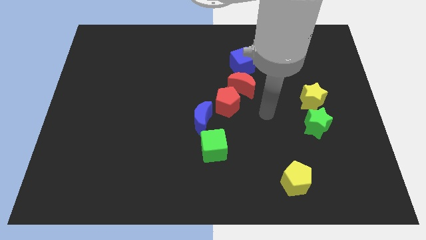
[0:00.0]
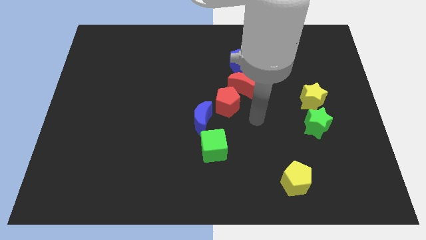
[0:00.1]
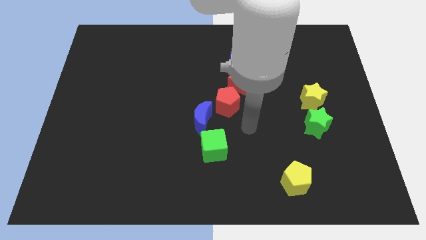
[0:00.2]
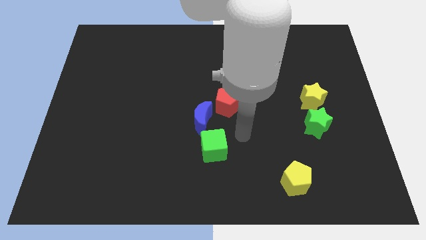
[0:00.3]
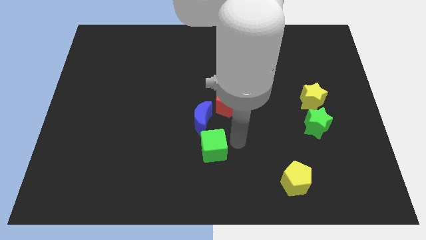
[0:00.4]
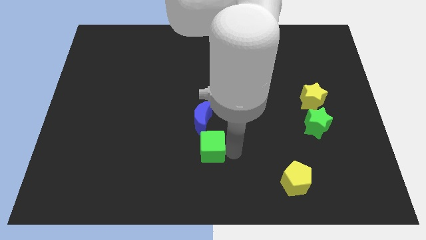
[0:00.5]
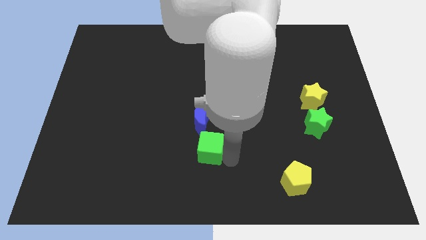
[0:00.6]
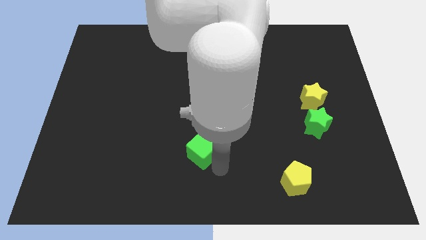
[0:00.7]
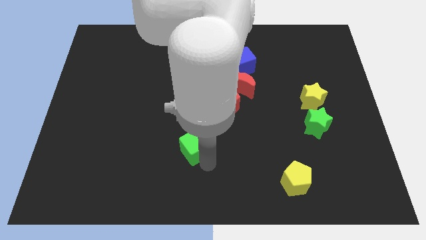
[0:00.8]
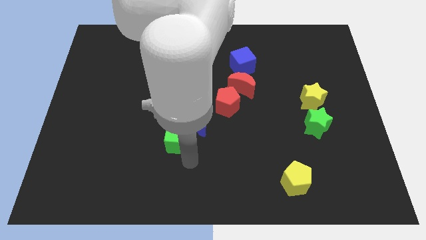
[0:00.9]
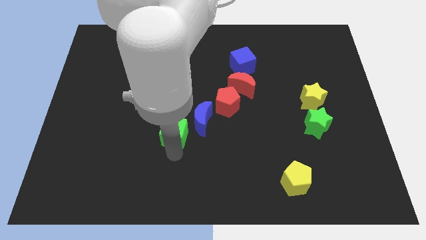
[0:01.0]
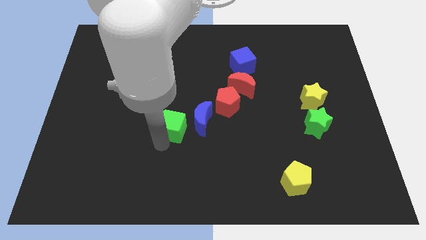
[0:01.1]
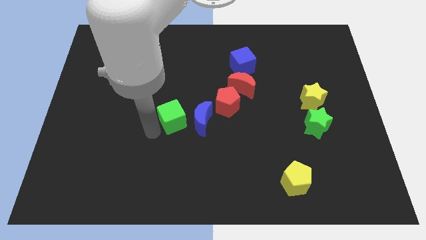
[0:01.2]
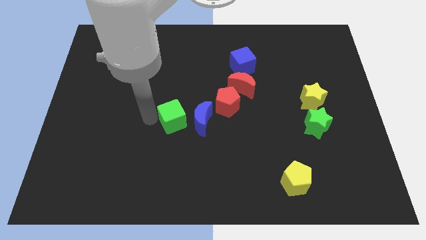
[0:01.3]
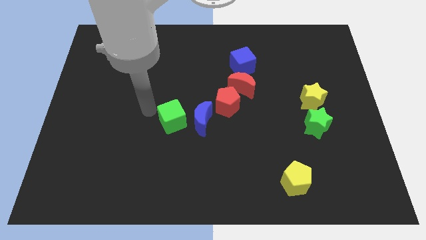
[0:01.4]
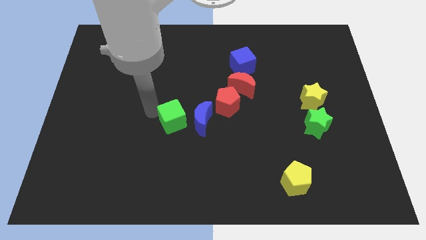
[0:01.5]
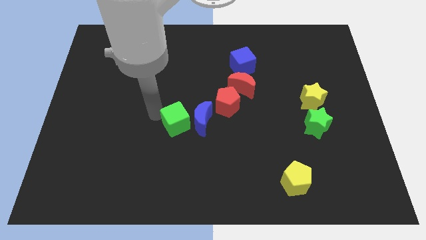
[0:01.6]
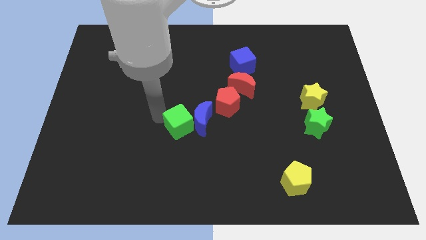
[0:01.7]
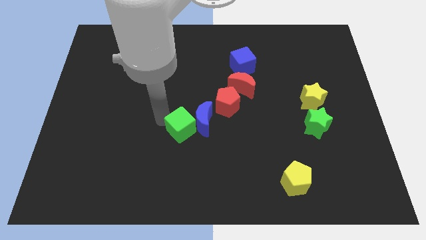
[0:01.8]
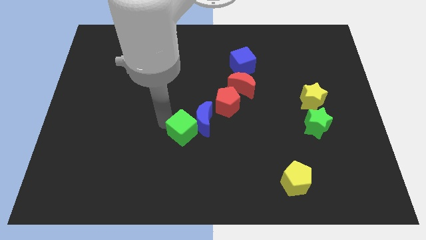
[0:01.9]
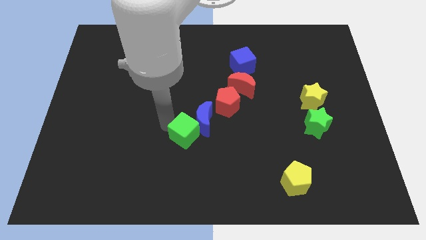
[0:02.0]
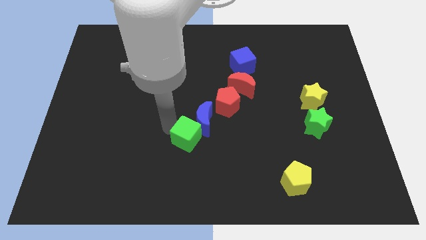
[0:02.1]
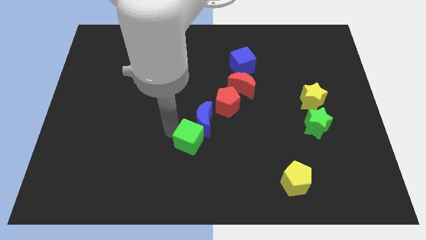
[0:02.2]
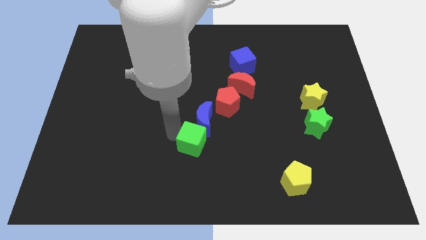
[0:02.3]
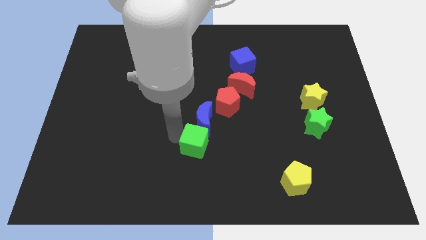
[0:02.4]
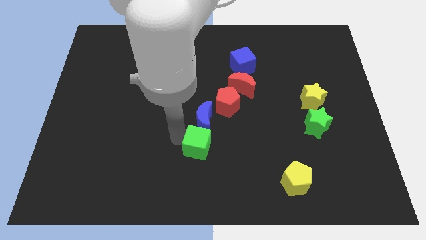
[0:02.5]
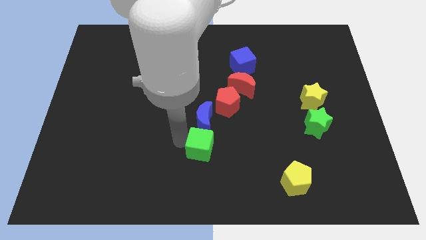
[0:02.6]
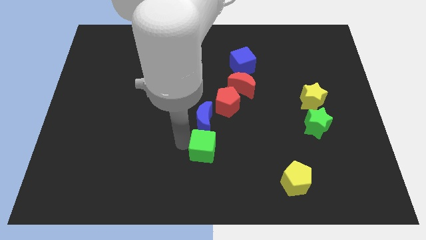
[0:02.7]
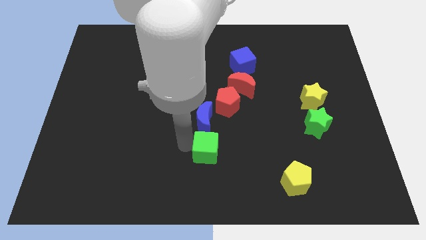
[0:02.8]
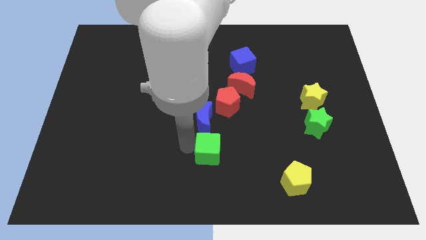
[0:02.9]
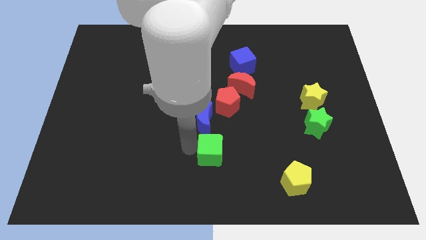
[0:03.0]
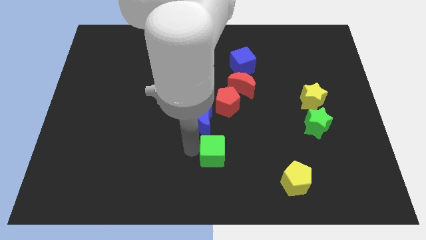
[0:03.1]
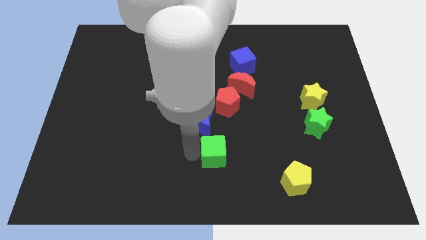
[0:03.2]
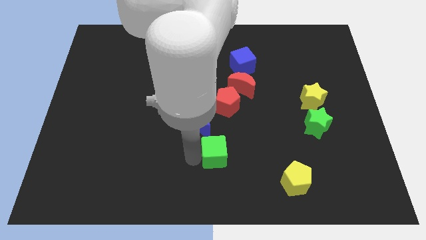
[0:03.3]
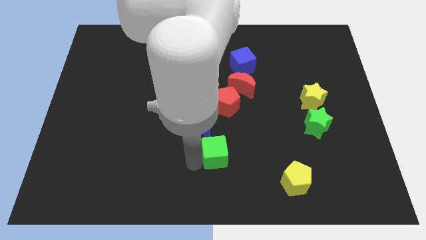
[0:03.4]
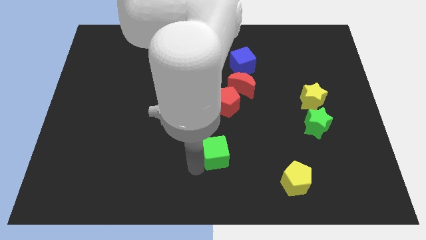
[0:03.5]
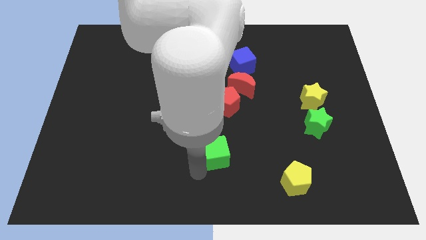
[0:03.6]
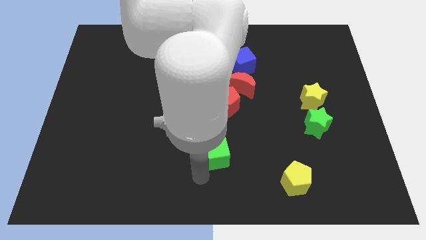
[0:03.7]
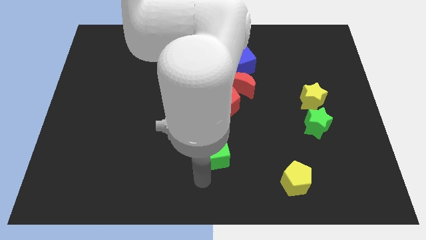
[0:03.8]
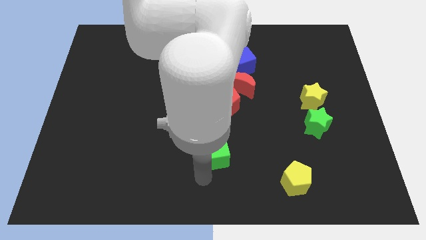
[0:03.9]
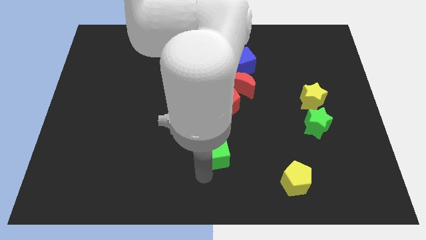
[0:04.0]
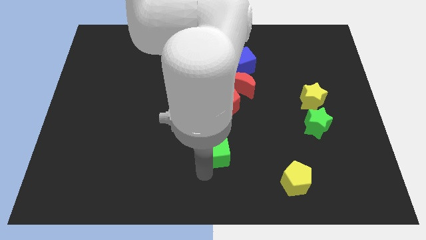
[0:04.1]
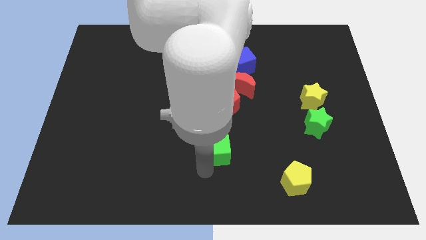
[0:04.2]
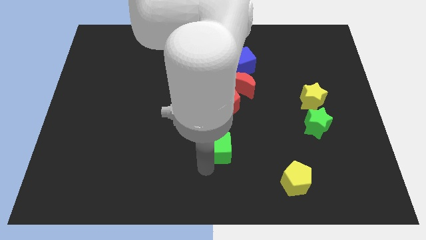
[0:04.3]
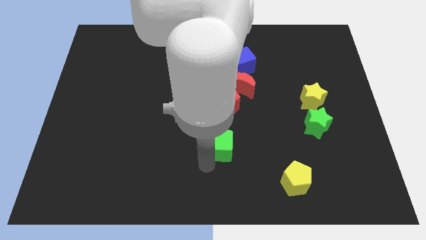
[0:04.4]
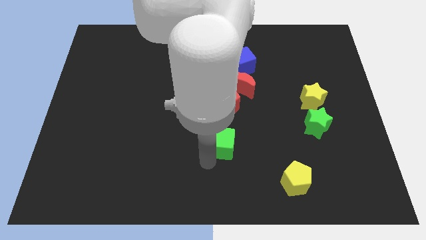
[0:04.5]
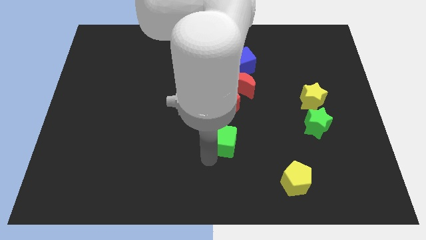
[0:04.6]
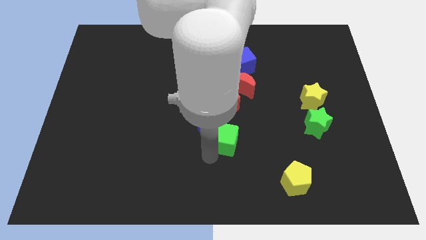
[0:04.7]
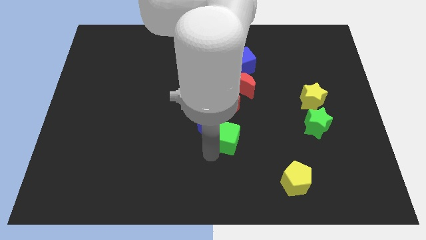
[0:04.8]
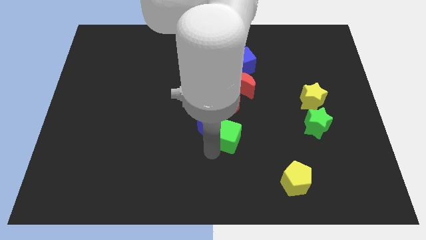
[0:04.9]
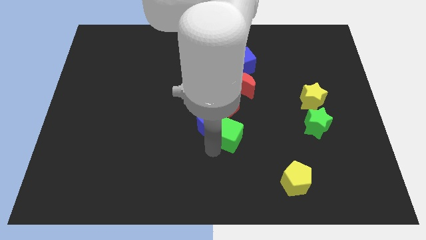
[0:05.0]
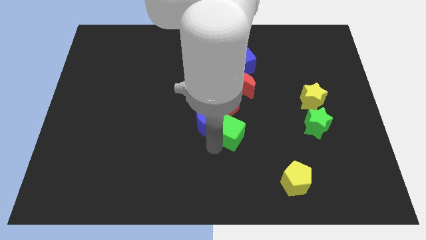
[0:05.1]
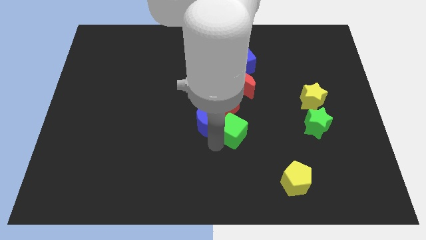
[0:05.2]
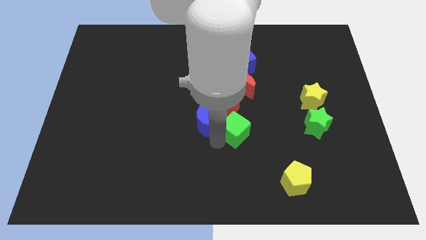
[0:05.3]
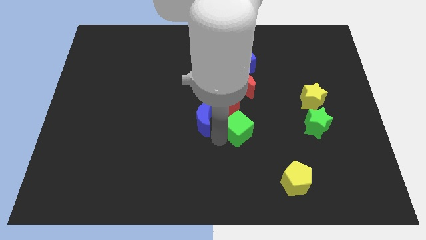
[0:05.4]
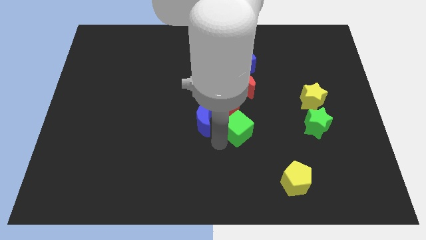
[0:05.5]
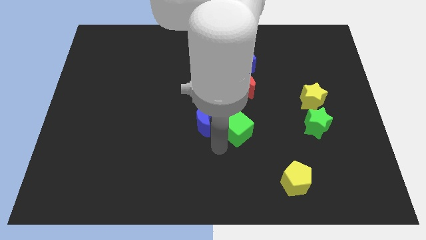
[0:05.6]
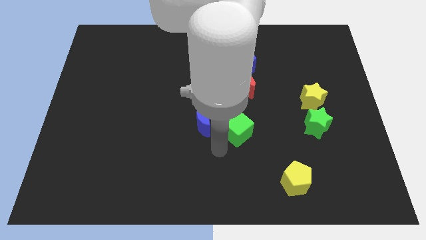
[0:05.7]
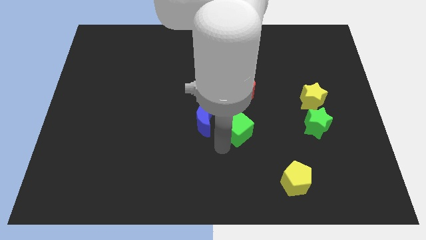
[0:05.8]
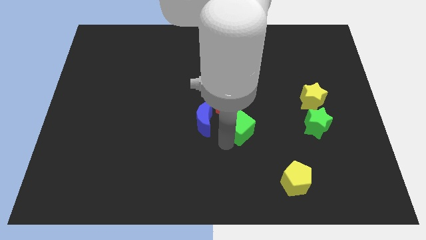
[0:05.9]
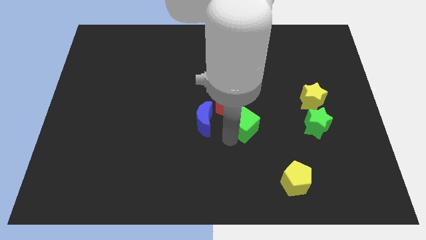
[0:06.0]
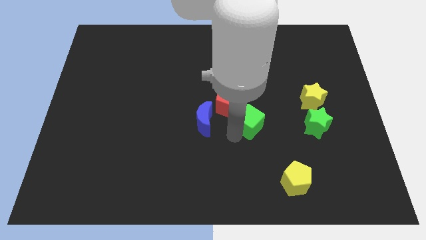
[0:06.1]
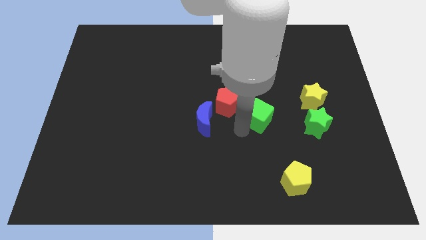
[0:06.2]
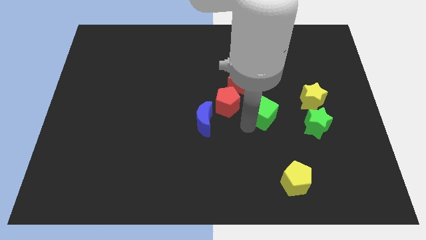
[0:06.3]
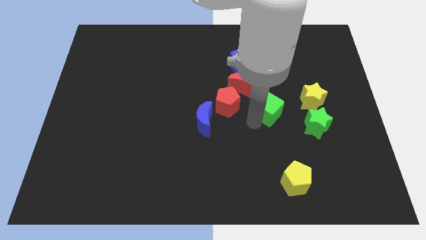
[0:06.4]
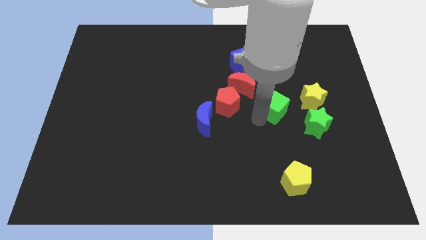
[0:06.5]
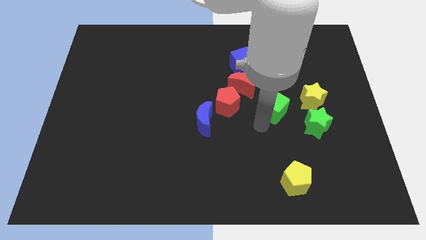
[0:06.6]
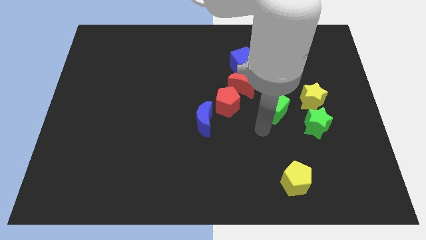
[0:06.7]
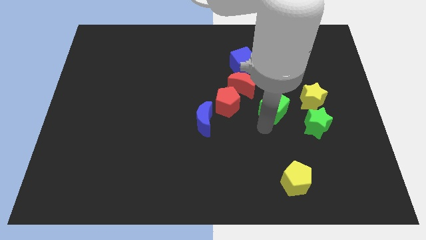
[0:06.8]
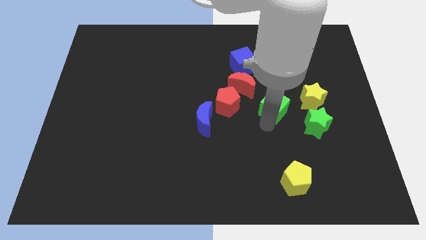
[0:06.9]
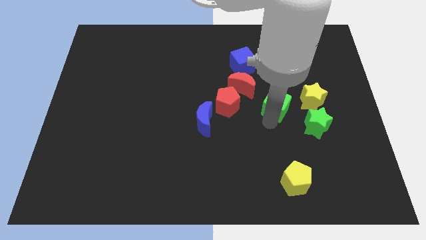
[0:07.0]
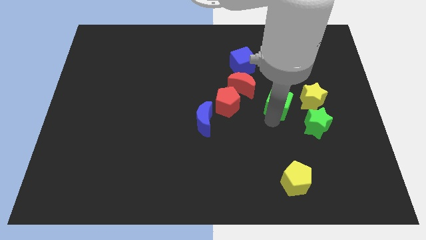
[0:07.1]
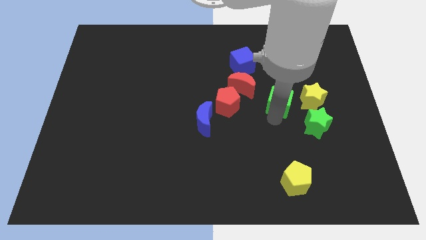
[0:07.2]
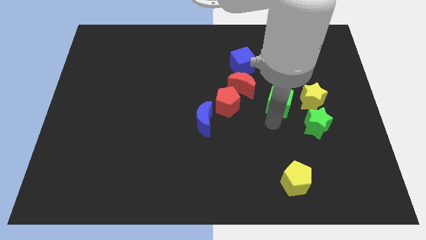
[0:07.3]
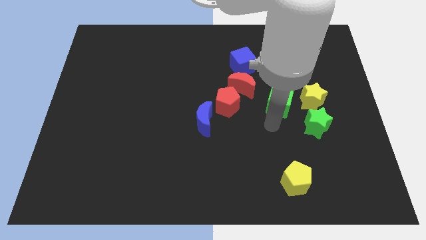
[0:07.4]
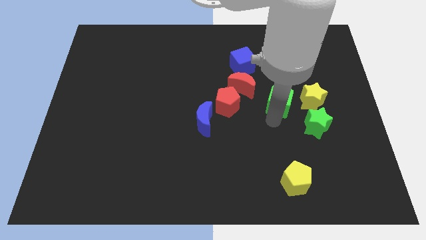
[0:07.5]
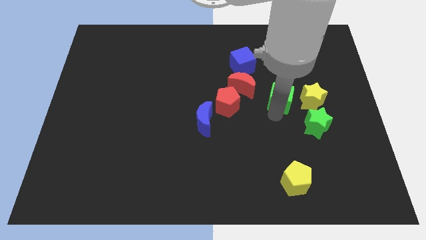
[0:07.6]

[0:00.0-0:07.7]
push the green cube to the right of the red moon
